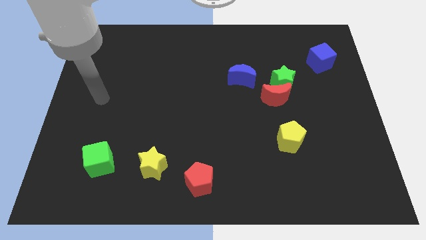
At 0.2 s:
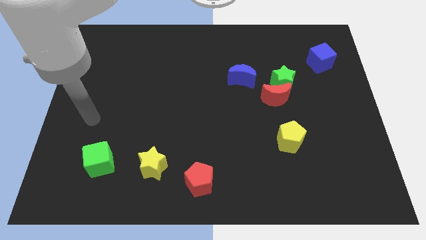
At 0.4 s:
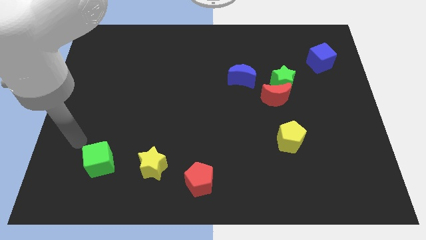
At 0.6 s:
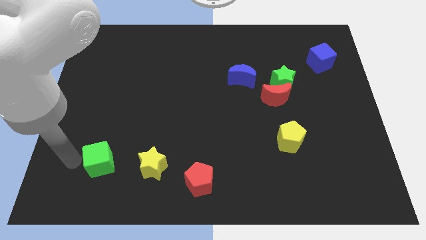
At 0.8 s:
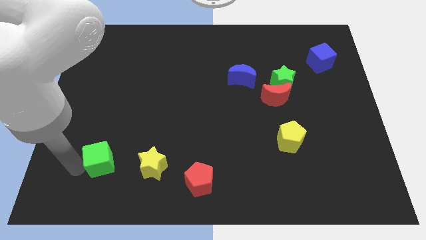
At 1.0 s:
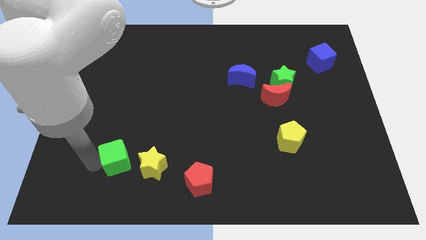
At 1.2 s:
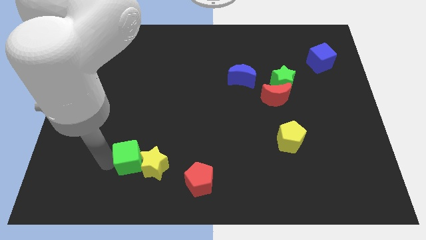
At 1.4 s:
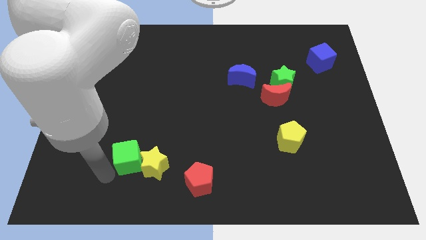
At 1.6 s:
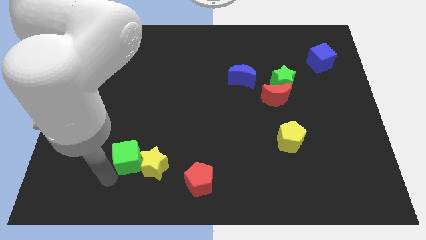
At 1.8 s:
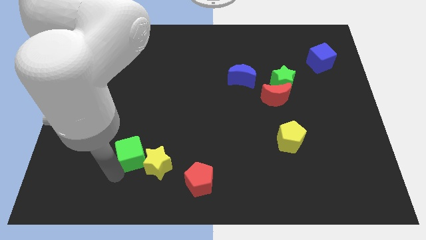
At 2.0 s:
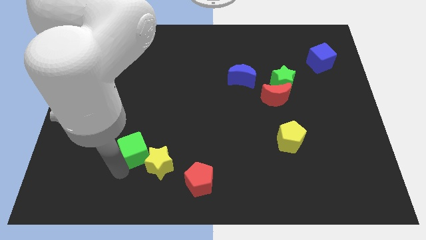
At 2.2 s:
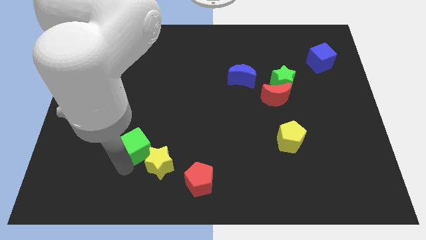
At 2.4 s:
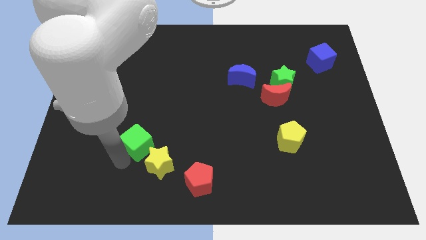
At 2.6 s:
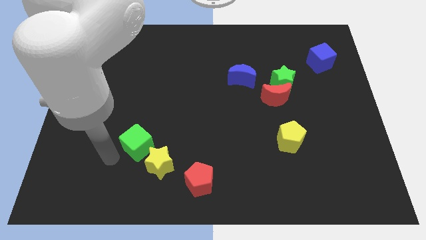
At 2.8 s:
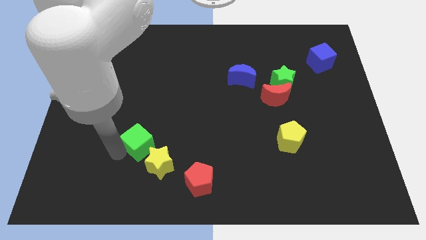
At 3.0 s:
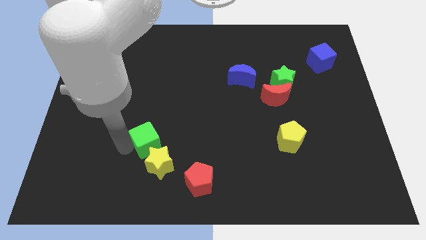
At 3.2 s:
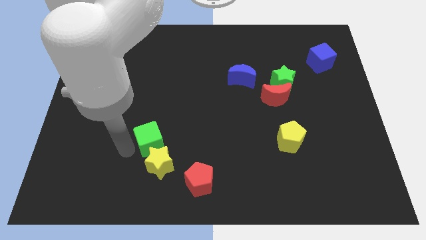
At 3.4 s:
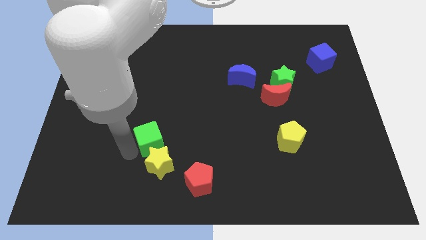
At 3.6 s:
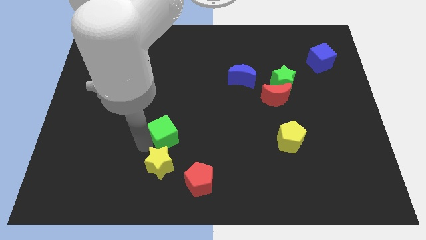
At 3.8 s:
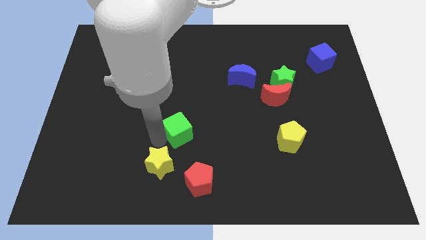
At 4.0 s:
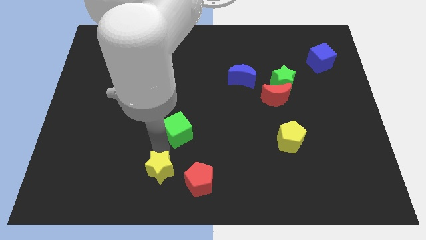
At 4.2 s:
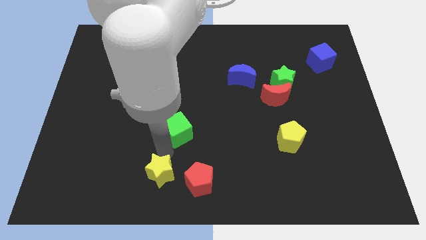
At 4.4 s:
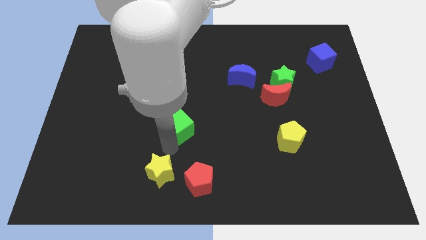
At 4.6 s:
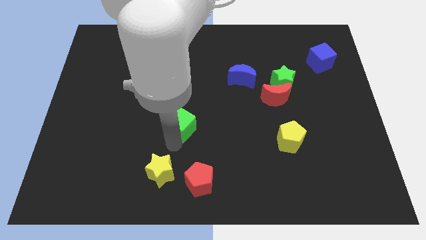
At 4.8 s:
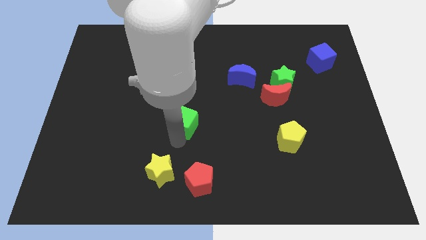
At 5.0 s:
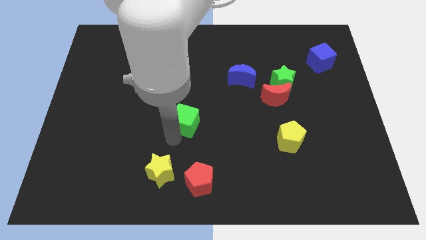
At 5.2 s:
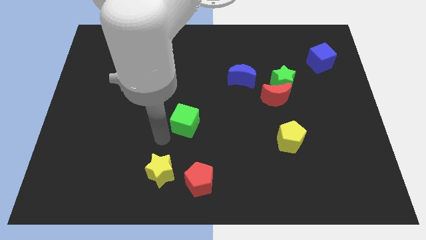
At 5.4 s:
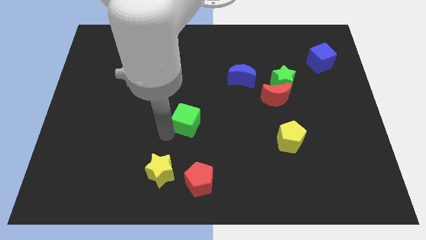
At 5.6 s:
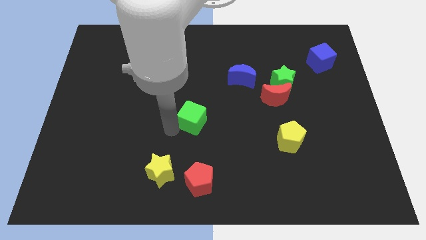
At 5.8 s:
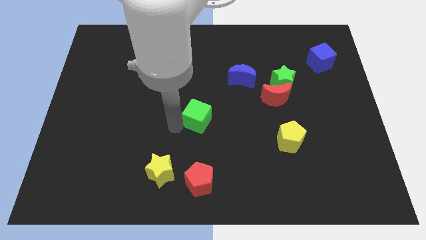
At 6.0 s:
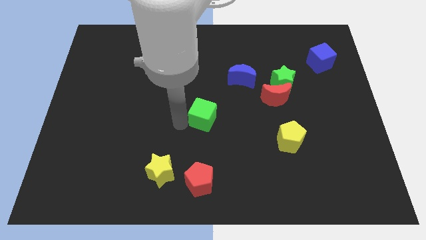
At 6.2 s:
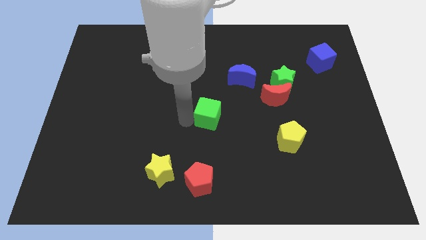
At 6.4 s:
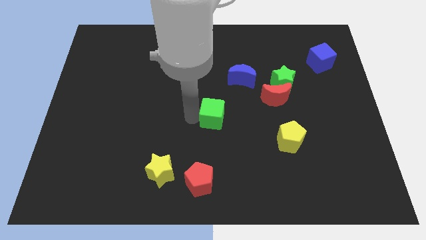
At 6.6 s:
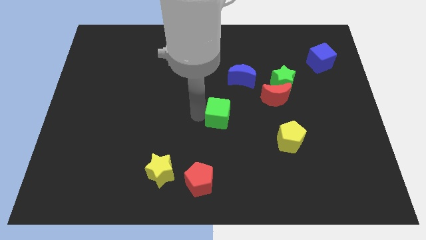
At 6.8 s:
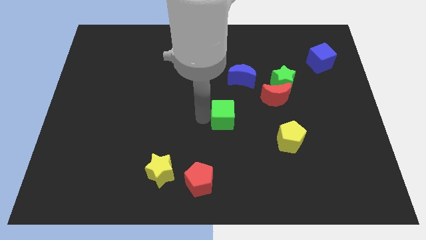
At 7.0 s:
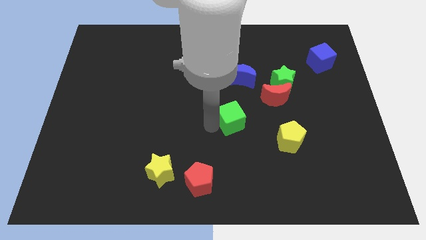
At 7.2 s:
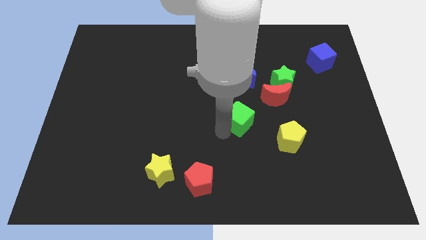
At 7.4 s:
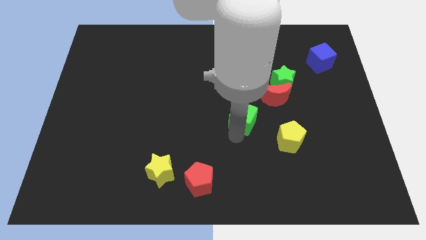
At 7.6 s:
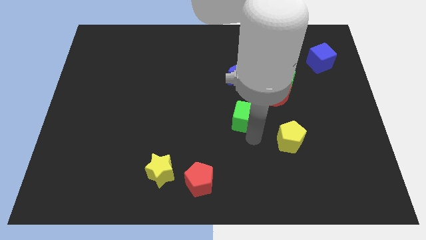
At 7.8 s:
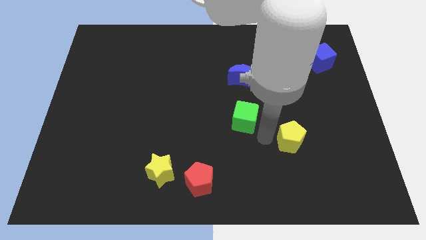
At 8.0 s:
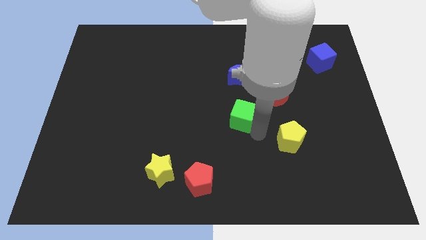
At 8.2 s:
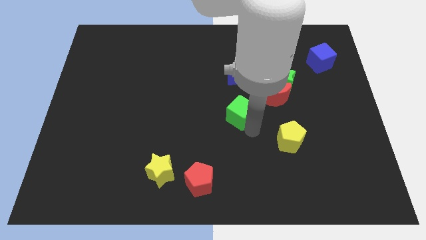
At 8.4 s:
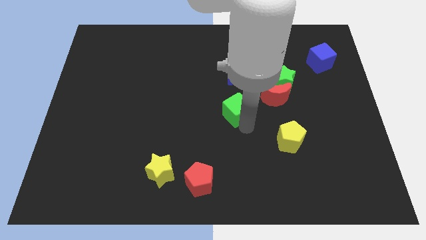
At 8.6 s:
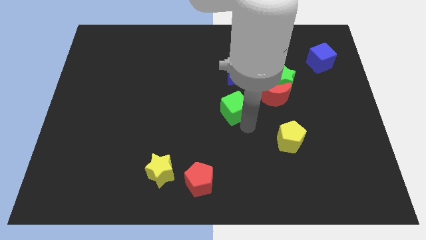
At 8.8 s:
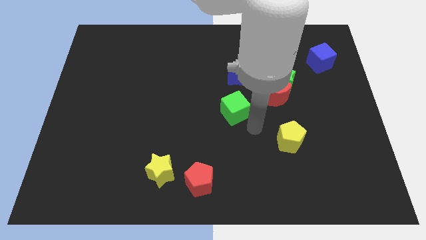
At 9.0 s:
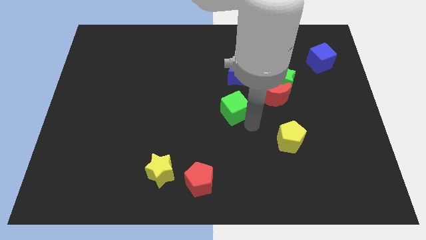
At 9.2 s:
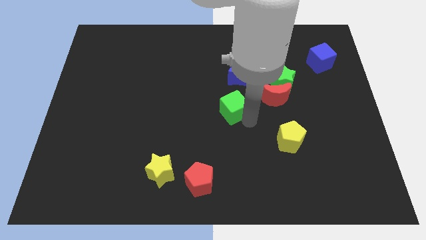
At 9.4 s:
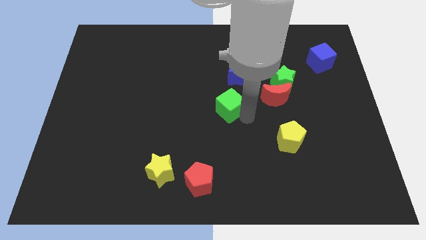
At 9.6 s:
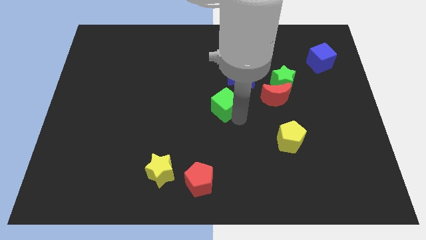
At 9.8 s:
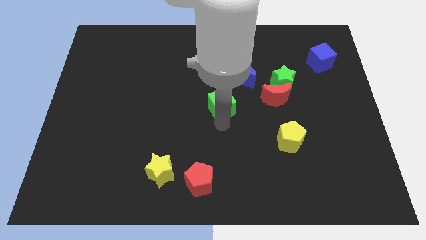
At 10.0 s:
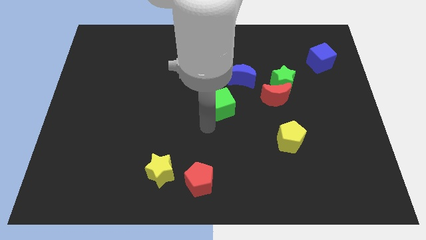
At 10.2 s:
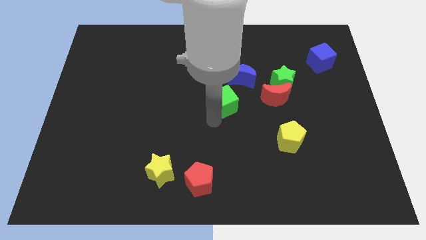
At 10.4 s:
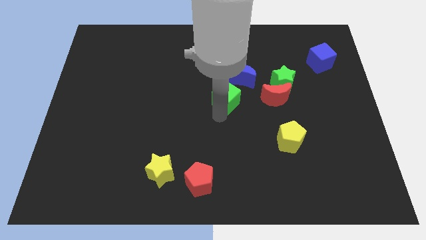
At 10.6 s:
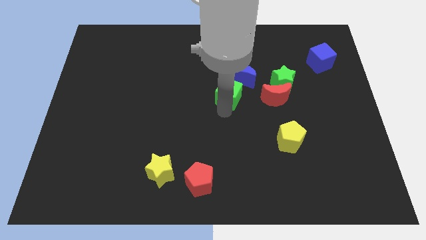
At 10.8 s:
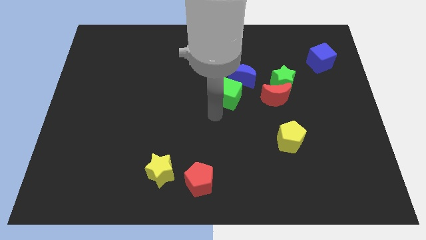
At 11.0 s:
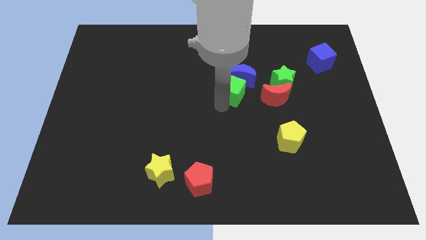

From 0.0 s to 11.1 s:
push the green cube to the blue moon
